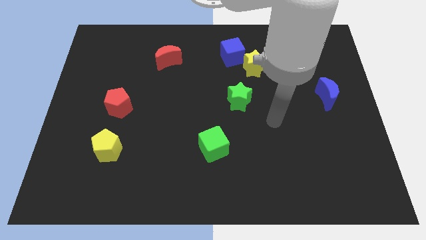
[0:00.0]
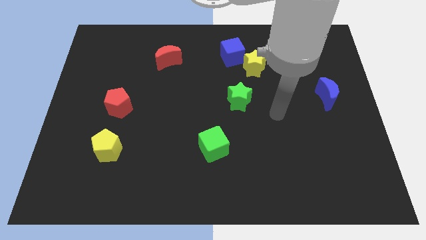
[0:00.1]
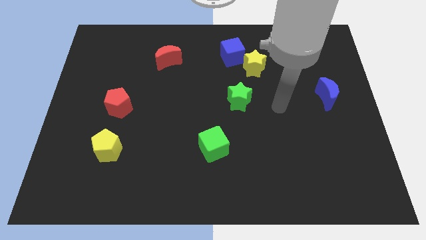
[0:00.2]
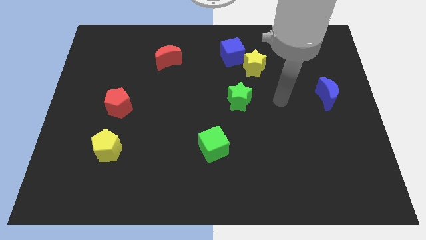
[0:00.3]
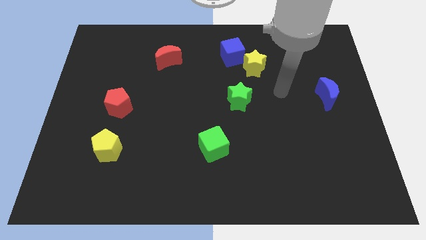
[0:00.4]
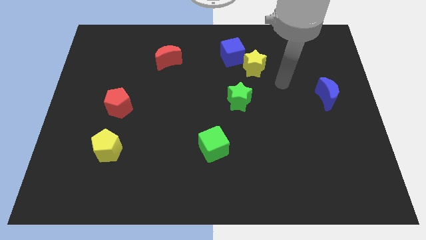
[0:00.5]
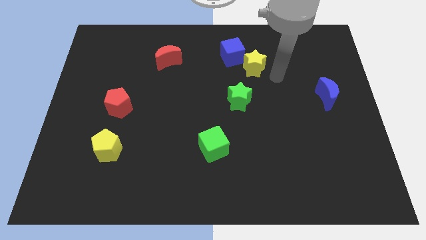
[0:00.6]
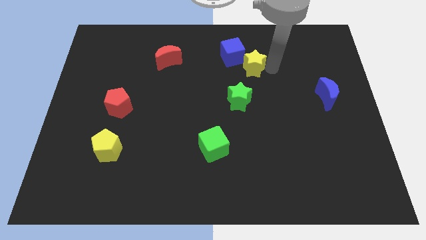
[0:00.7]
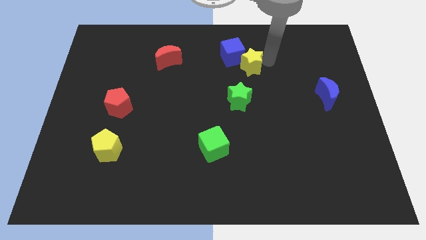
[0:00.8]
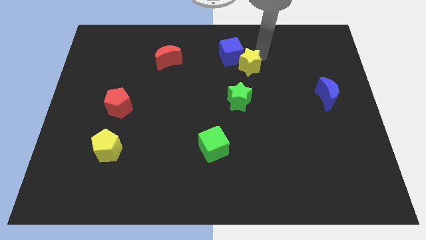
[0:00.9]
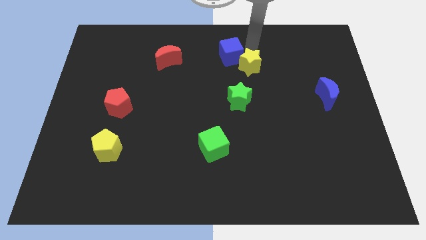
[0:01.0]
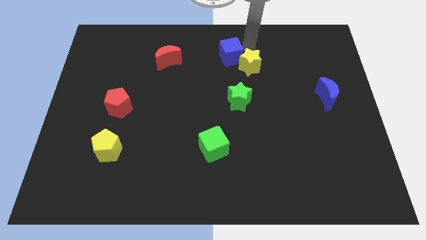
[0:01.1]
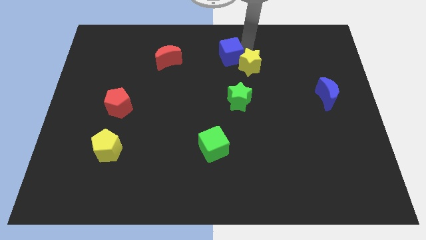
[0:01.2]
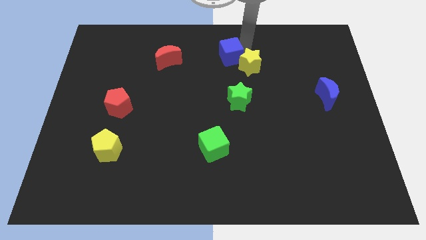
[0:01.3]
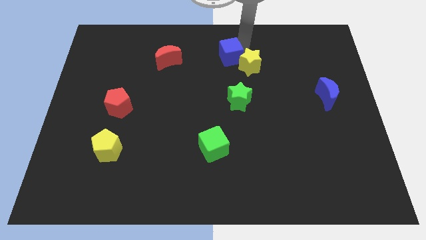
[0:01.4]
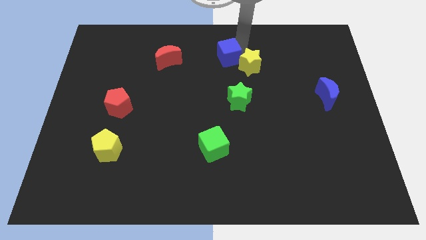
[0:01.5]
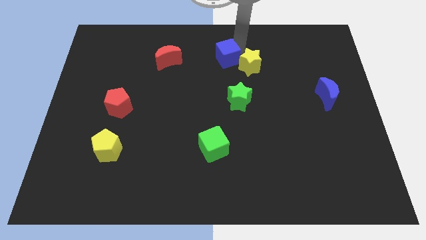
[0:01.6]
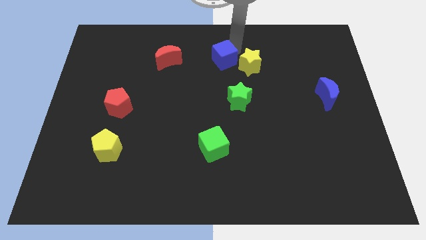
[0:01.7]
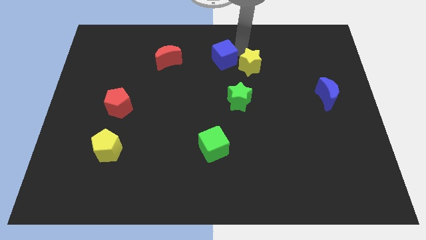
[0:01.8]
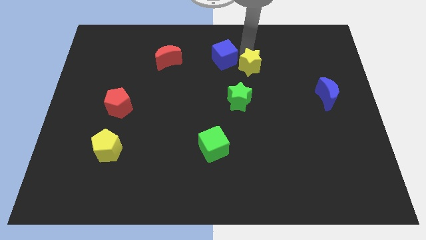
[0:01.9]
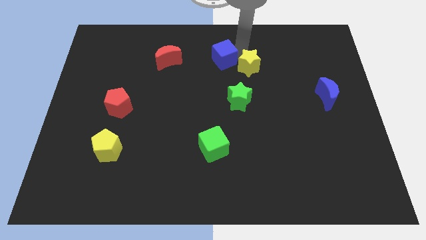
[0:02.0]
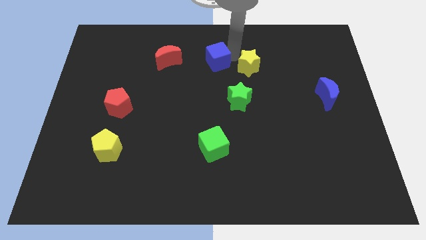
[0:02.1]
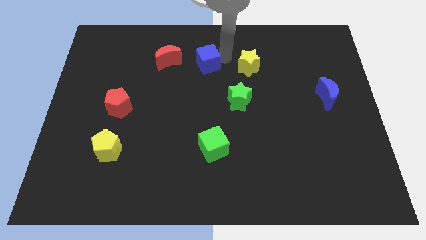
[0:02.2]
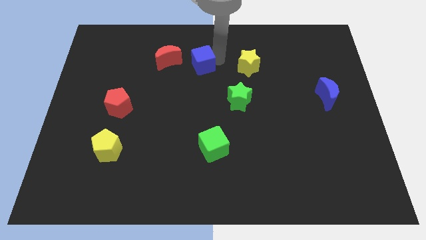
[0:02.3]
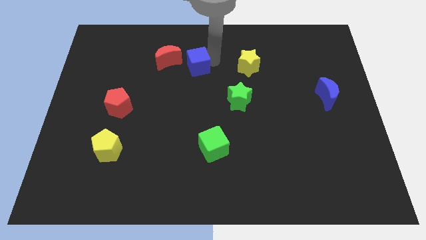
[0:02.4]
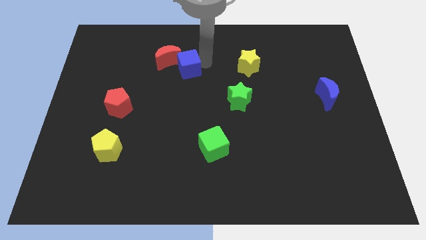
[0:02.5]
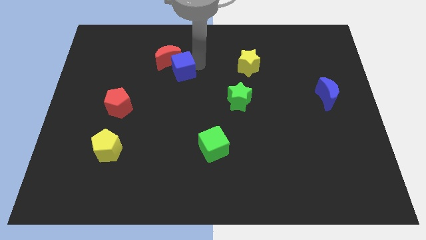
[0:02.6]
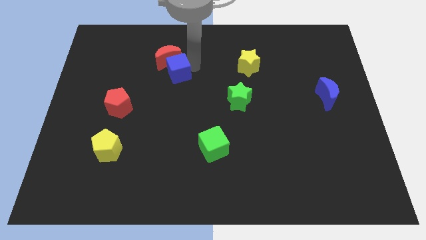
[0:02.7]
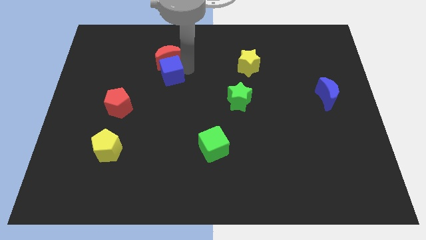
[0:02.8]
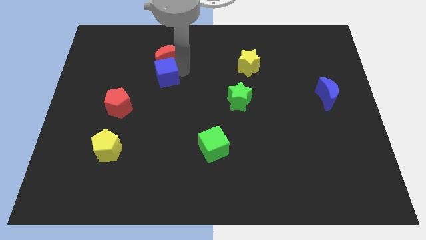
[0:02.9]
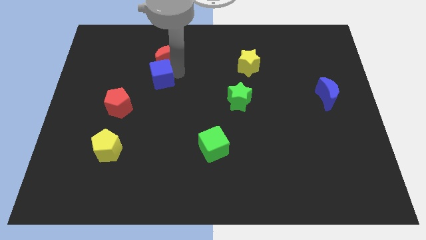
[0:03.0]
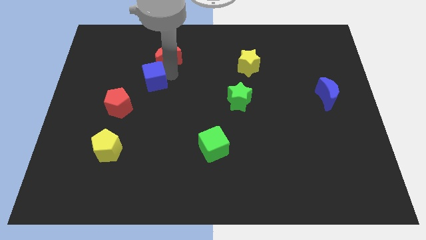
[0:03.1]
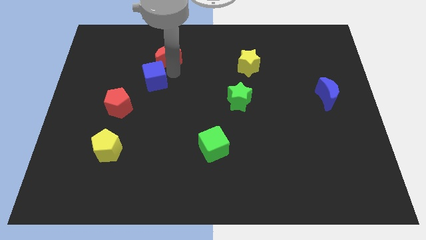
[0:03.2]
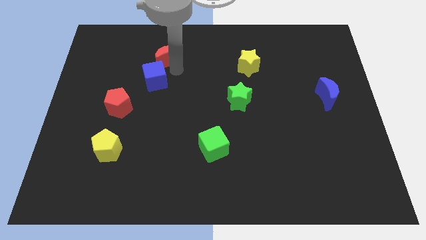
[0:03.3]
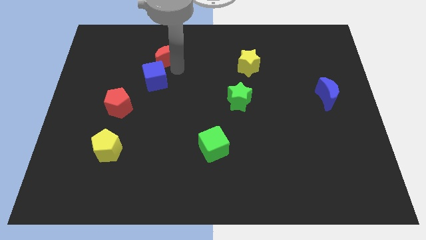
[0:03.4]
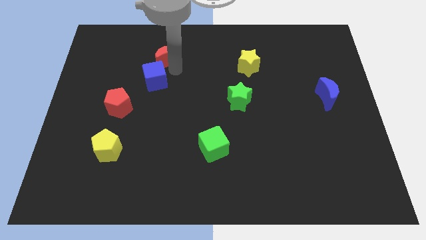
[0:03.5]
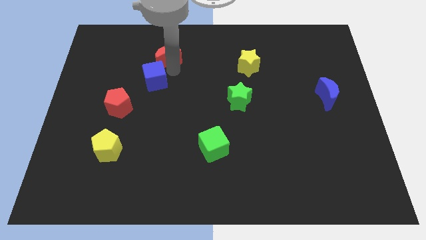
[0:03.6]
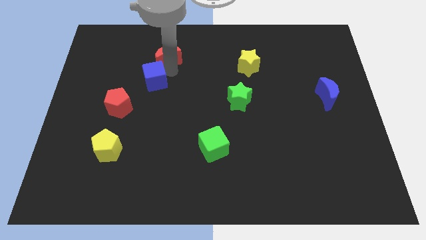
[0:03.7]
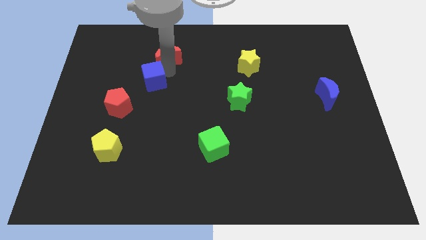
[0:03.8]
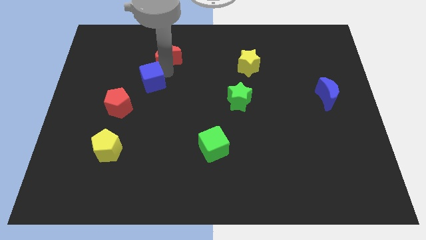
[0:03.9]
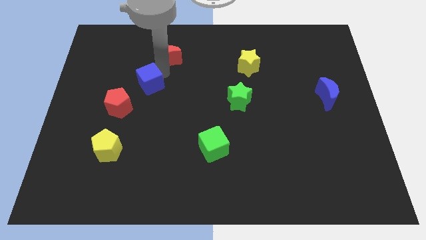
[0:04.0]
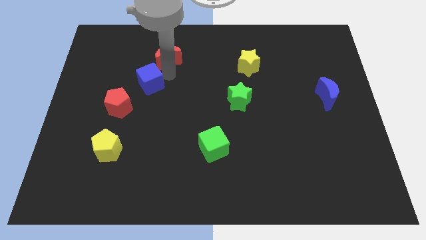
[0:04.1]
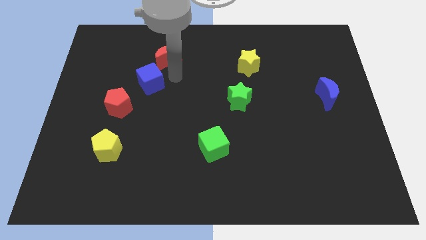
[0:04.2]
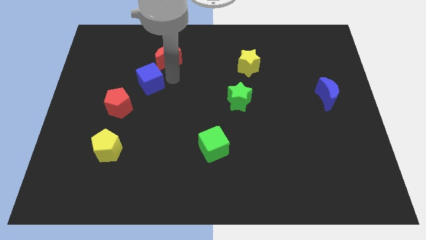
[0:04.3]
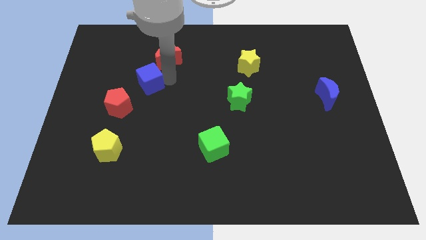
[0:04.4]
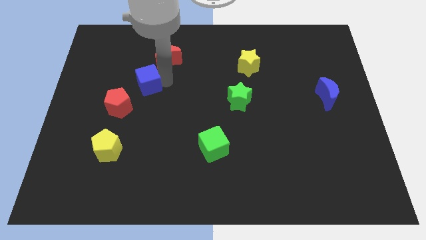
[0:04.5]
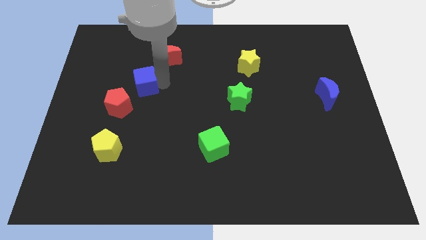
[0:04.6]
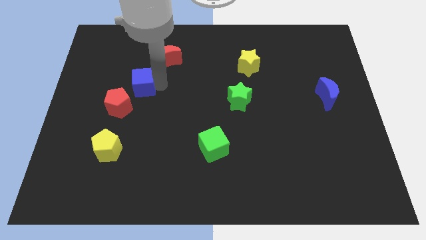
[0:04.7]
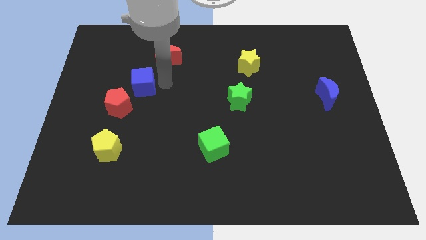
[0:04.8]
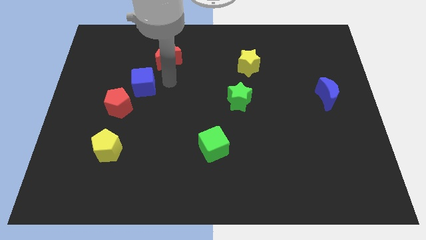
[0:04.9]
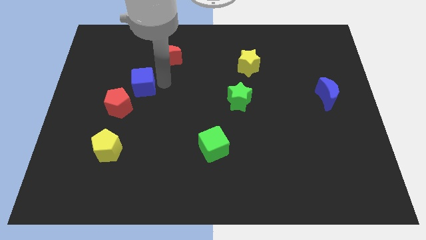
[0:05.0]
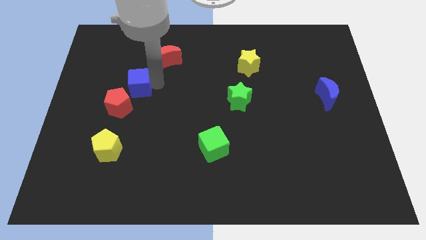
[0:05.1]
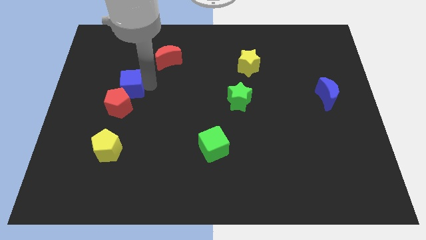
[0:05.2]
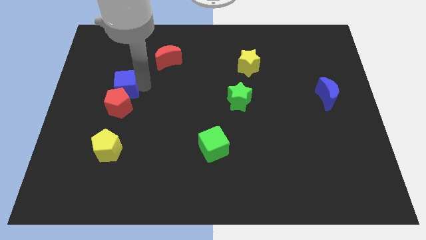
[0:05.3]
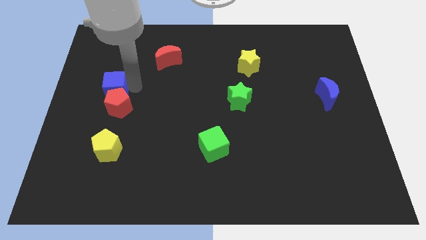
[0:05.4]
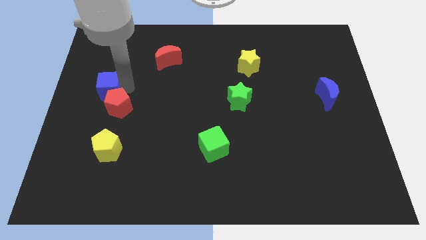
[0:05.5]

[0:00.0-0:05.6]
move the blue cube to the left side of the board

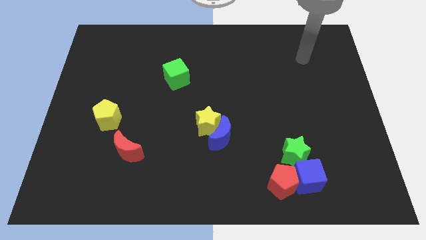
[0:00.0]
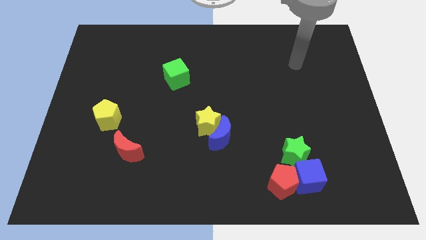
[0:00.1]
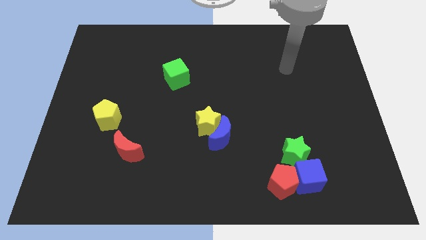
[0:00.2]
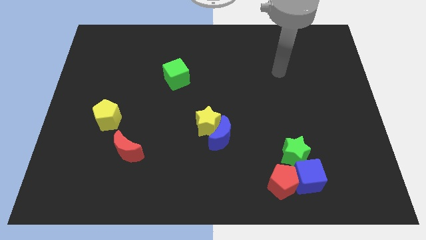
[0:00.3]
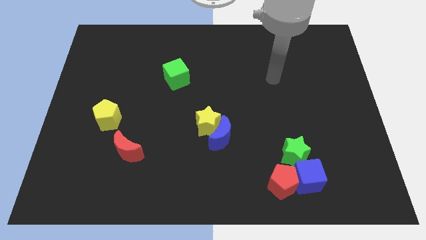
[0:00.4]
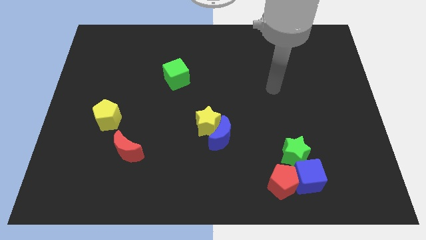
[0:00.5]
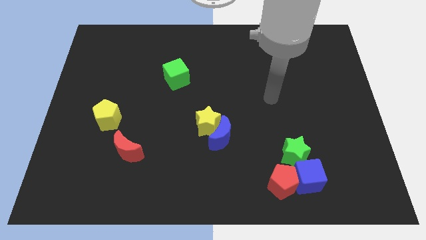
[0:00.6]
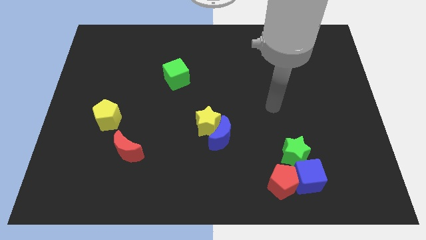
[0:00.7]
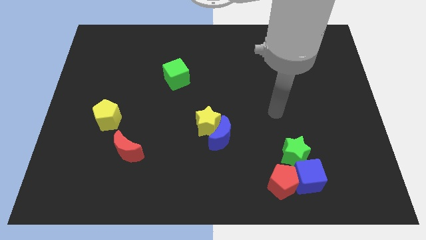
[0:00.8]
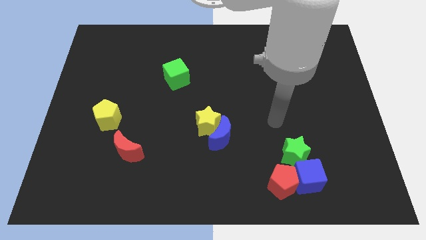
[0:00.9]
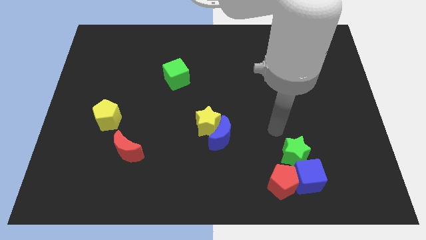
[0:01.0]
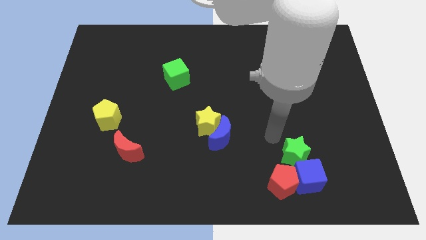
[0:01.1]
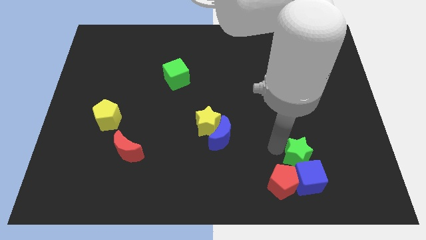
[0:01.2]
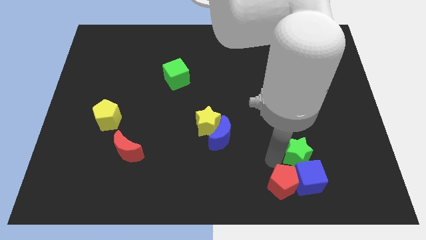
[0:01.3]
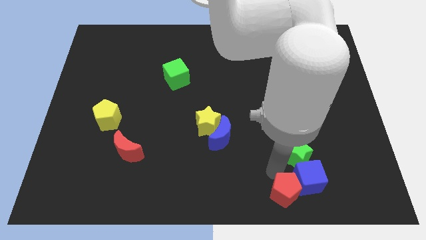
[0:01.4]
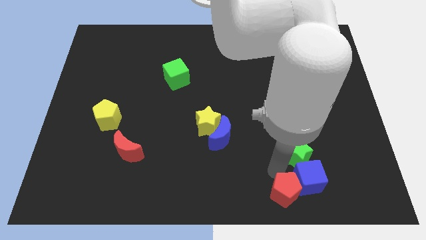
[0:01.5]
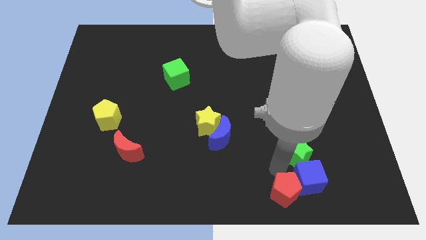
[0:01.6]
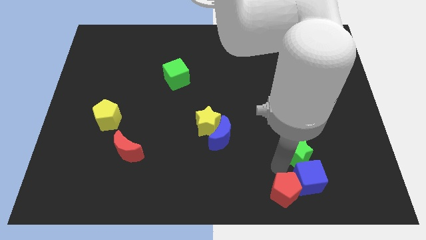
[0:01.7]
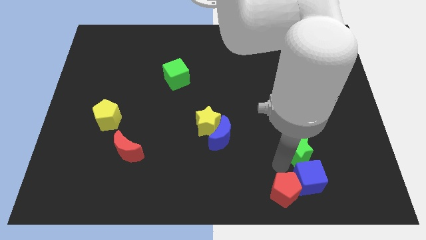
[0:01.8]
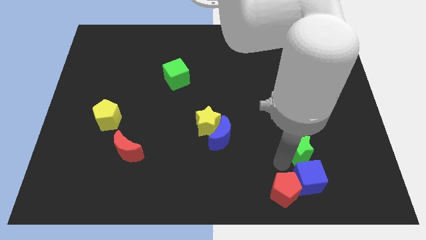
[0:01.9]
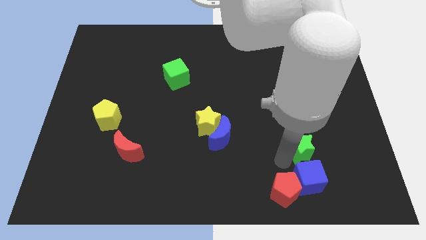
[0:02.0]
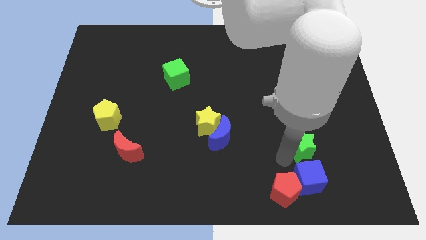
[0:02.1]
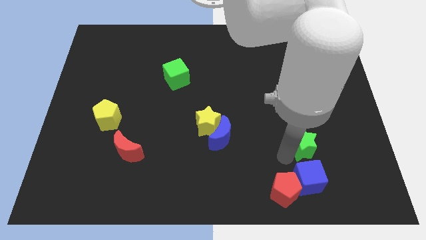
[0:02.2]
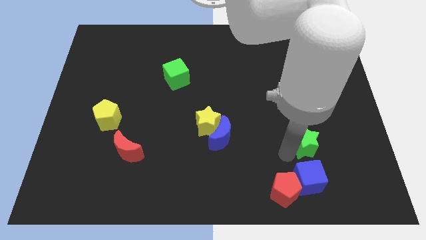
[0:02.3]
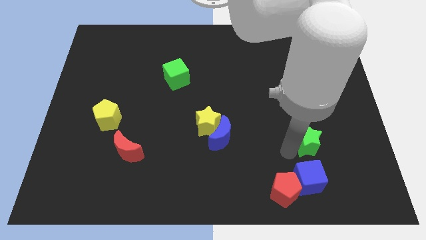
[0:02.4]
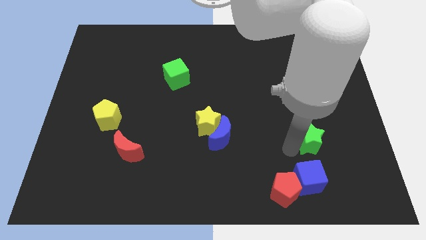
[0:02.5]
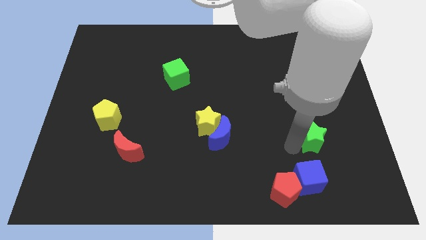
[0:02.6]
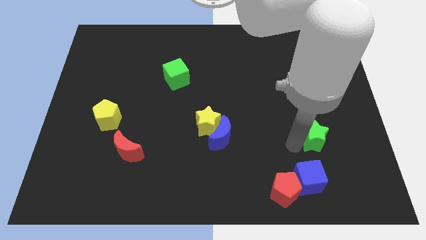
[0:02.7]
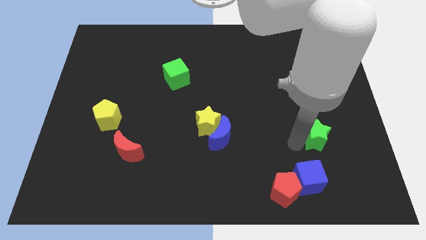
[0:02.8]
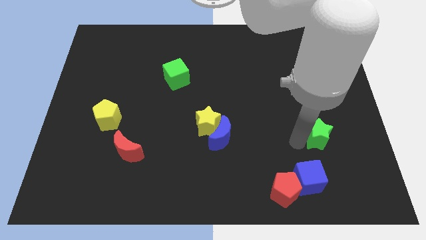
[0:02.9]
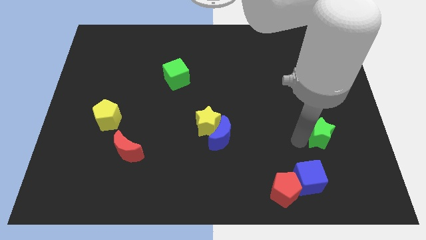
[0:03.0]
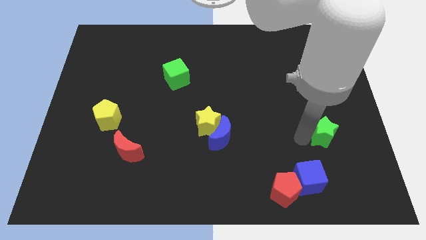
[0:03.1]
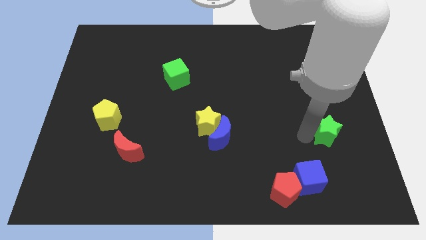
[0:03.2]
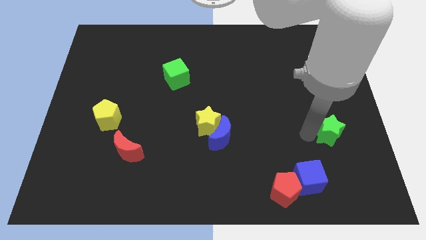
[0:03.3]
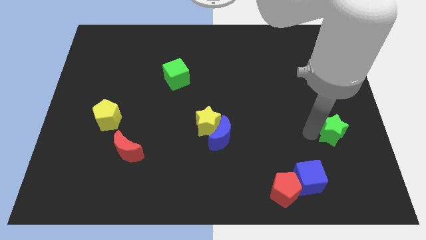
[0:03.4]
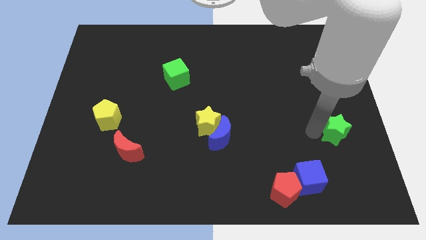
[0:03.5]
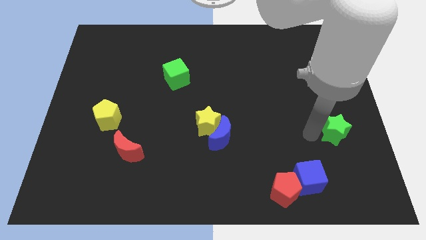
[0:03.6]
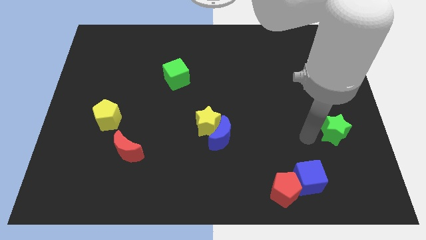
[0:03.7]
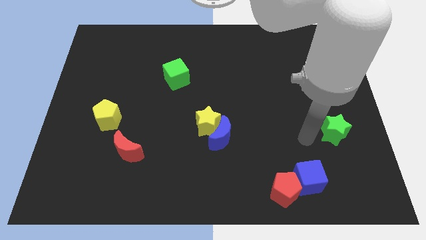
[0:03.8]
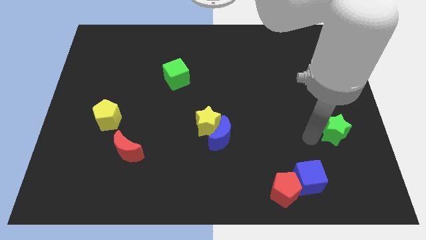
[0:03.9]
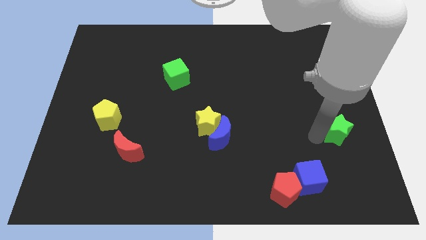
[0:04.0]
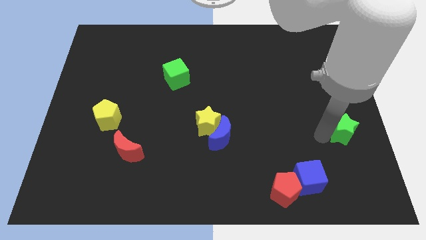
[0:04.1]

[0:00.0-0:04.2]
push the green star to the right side
